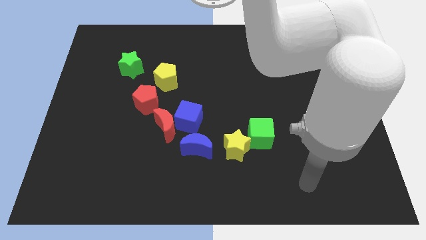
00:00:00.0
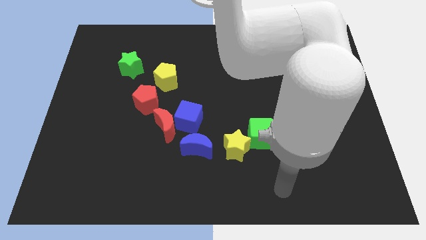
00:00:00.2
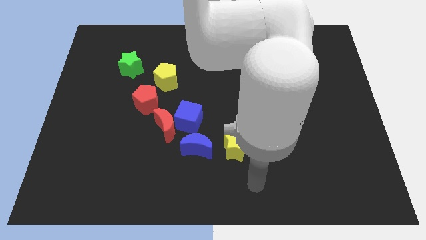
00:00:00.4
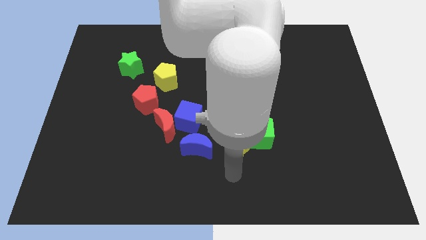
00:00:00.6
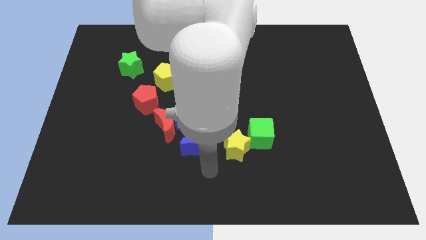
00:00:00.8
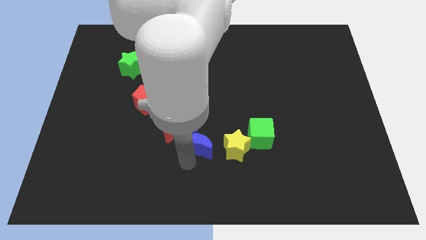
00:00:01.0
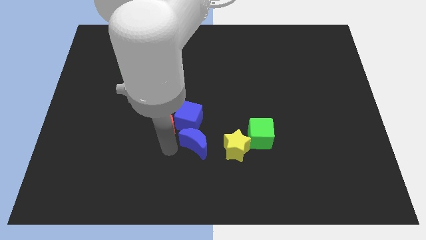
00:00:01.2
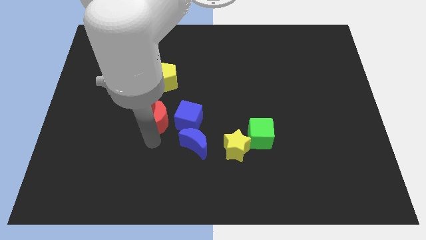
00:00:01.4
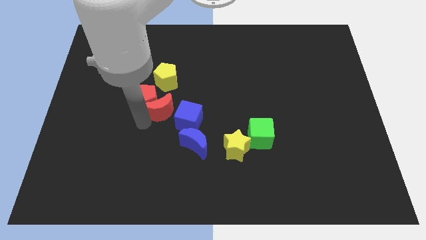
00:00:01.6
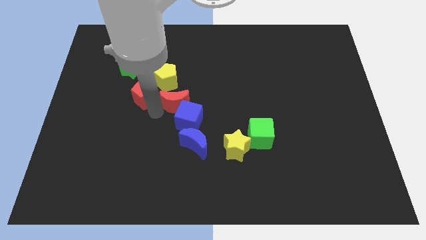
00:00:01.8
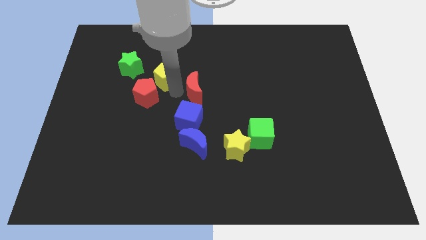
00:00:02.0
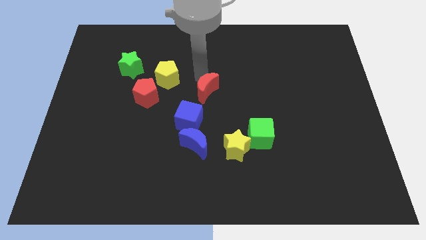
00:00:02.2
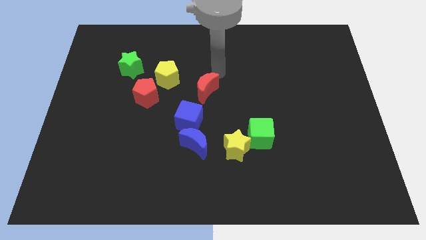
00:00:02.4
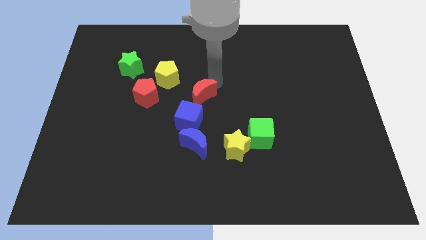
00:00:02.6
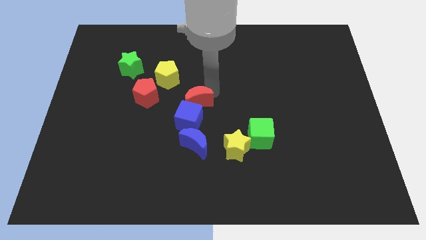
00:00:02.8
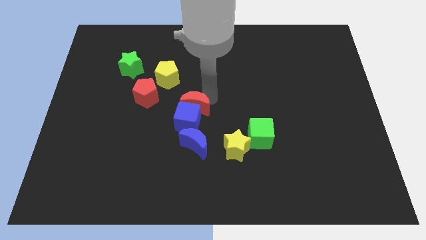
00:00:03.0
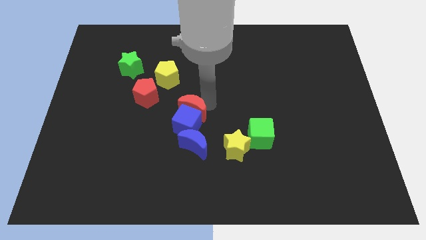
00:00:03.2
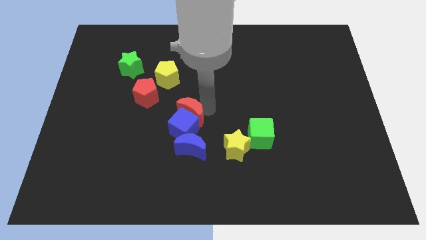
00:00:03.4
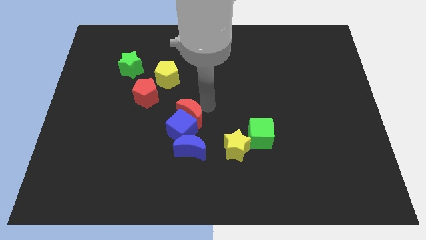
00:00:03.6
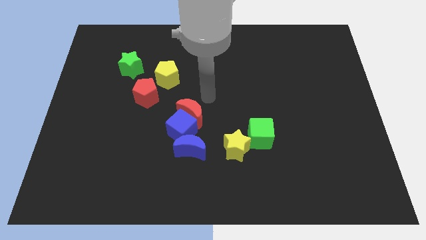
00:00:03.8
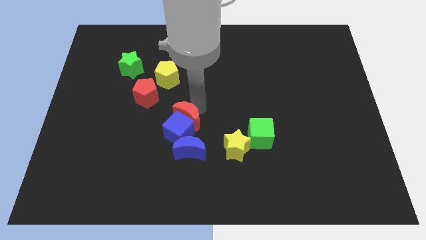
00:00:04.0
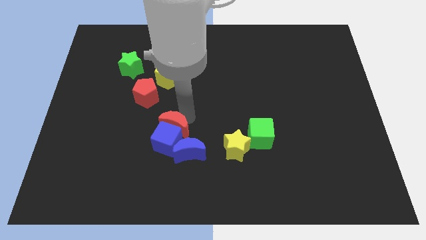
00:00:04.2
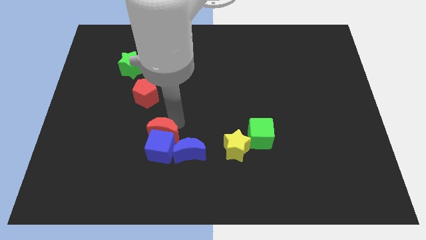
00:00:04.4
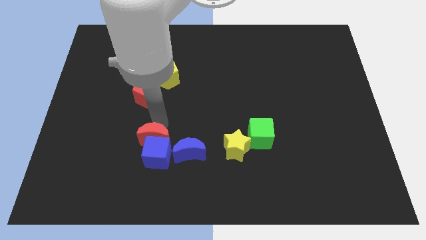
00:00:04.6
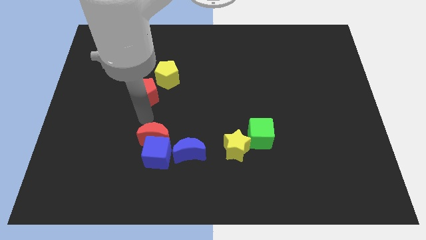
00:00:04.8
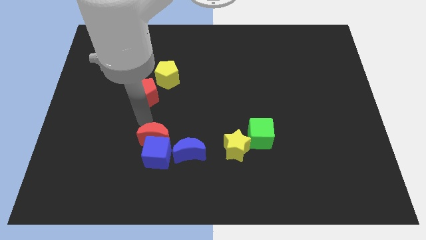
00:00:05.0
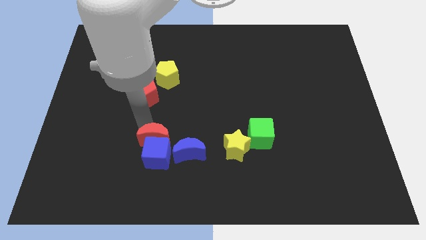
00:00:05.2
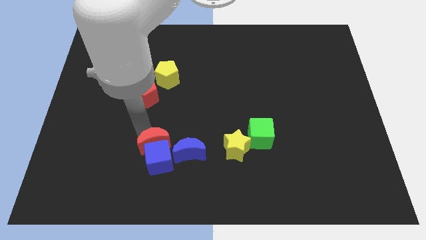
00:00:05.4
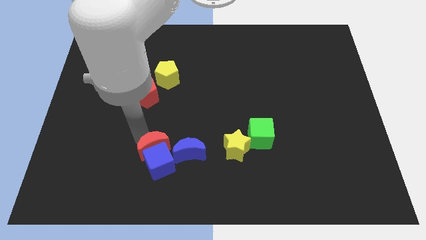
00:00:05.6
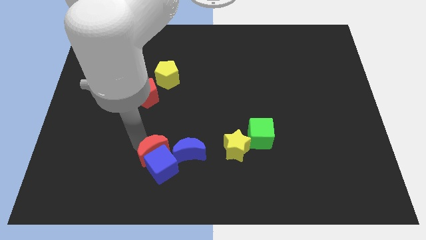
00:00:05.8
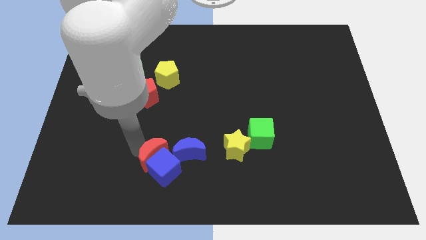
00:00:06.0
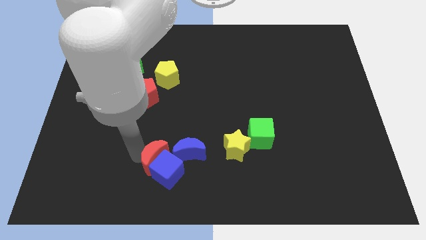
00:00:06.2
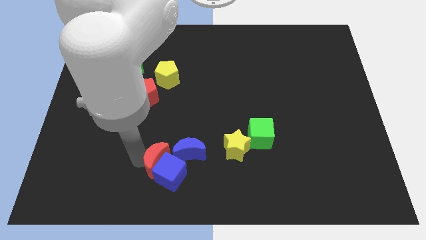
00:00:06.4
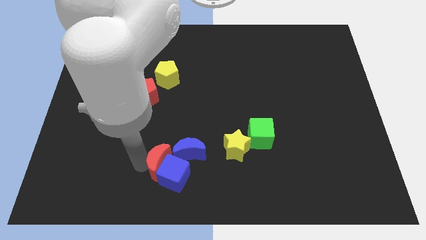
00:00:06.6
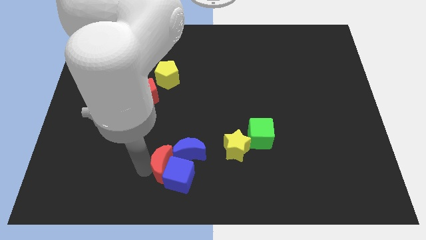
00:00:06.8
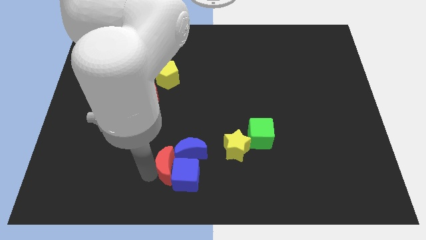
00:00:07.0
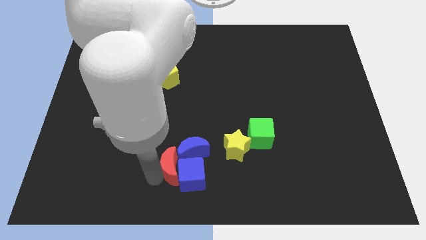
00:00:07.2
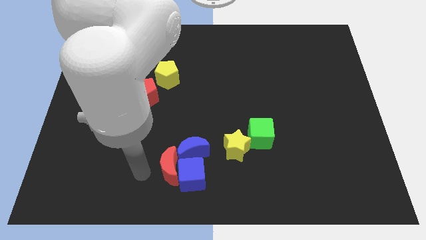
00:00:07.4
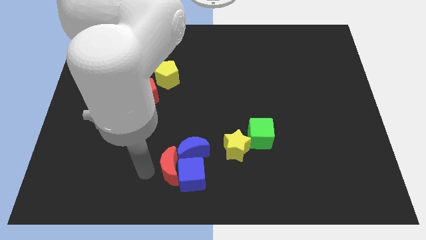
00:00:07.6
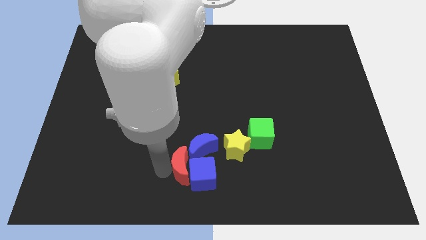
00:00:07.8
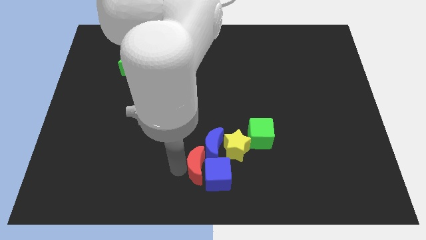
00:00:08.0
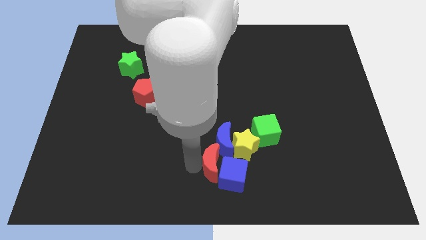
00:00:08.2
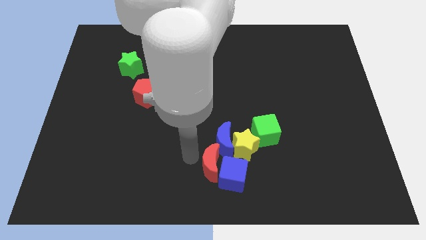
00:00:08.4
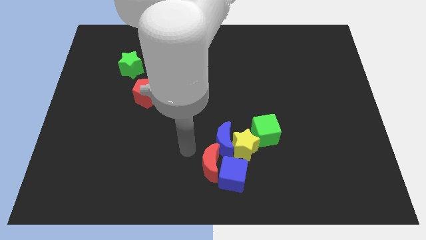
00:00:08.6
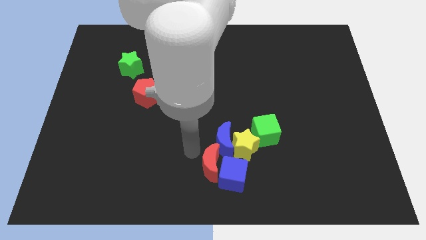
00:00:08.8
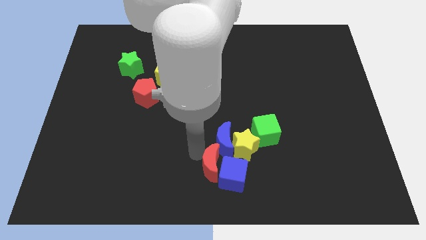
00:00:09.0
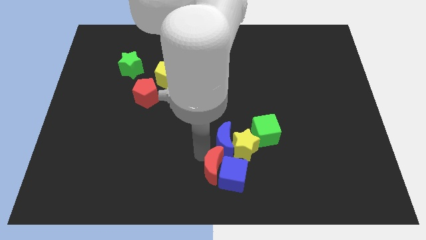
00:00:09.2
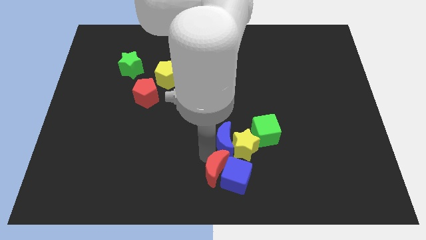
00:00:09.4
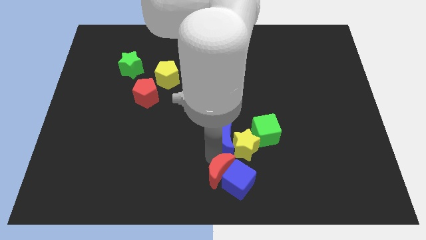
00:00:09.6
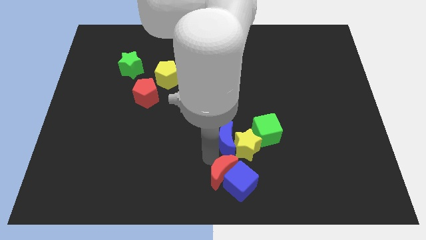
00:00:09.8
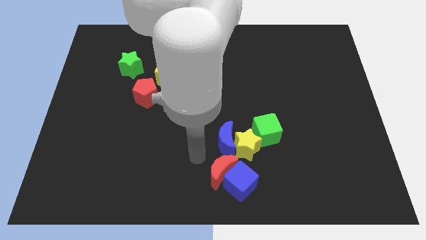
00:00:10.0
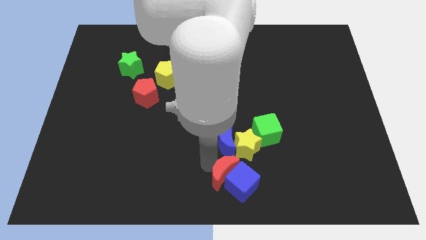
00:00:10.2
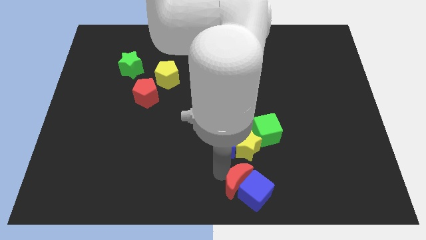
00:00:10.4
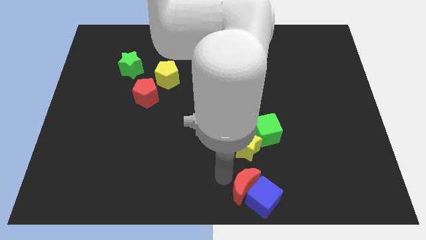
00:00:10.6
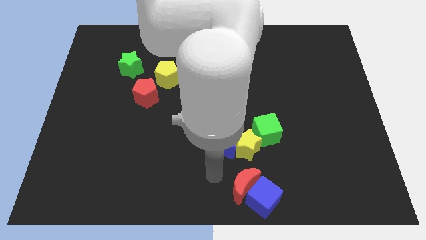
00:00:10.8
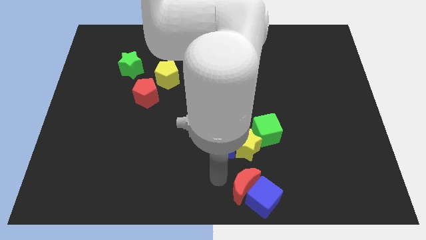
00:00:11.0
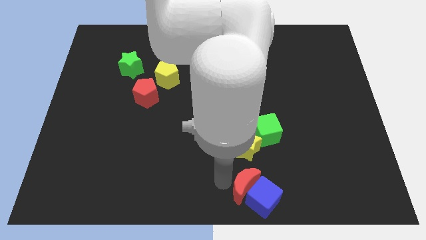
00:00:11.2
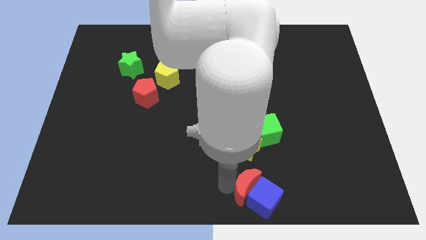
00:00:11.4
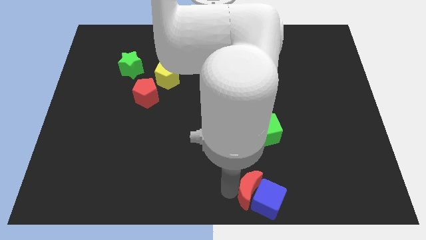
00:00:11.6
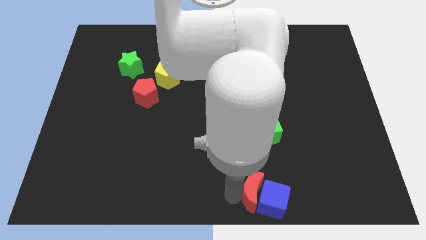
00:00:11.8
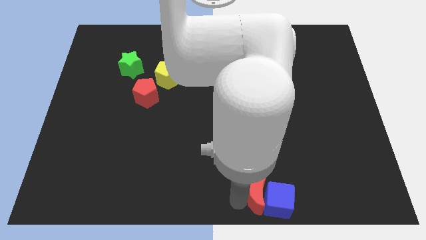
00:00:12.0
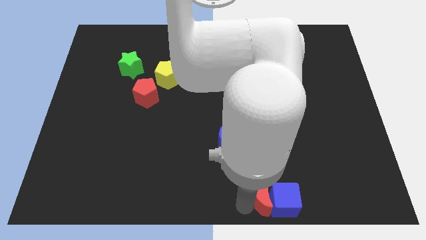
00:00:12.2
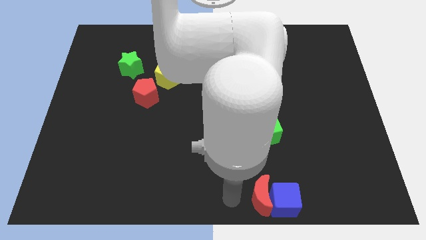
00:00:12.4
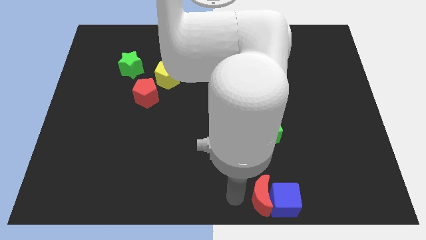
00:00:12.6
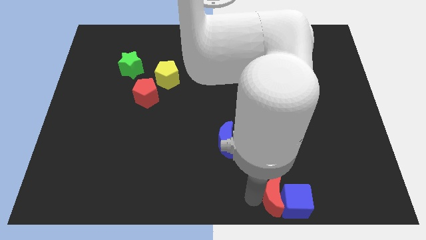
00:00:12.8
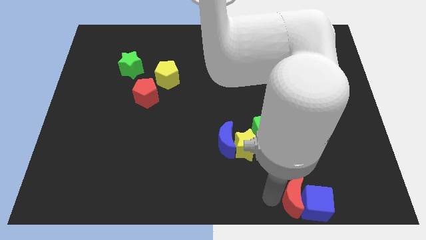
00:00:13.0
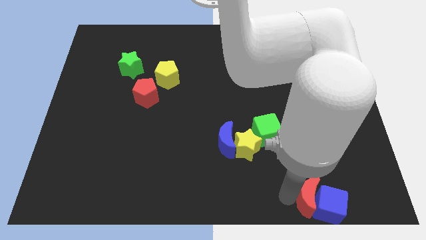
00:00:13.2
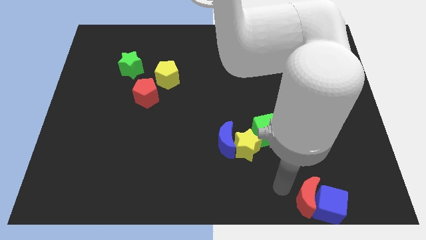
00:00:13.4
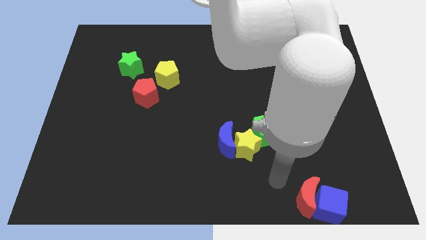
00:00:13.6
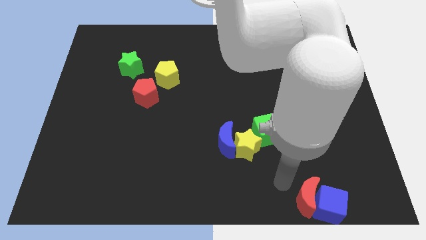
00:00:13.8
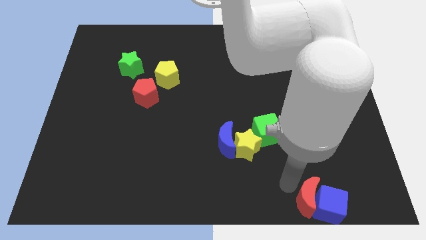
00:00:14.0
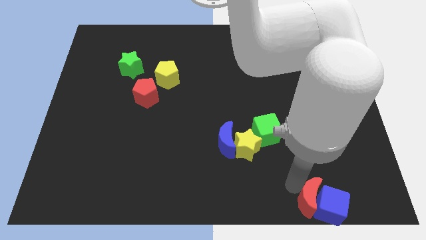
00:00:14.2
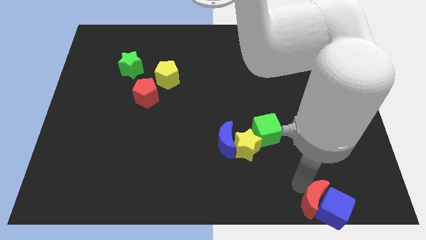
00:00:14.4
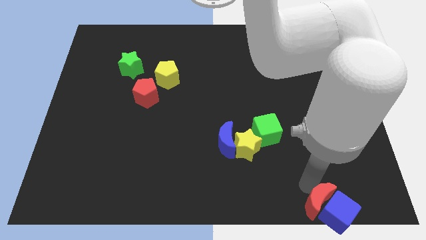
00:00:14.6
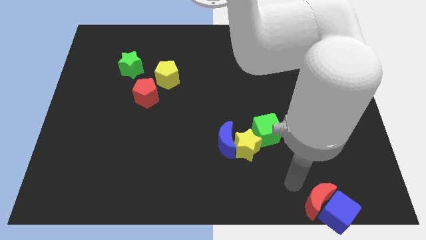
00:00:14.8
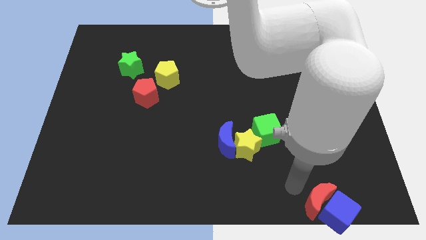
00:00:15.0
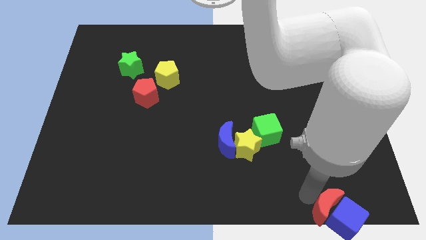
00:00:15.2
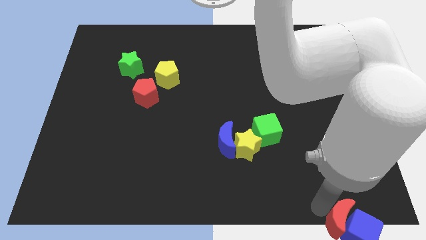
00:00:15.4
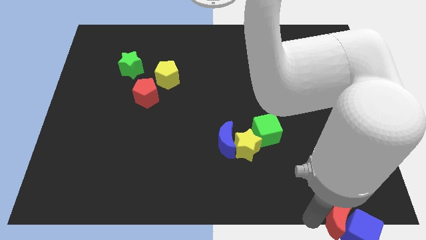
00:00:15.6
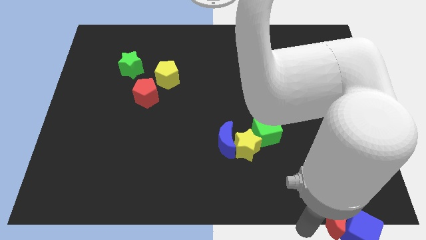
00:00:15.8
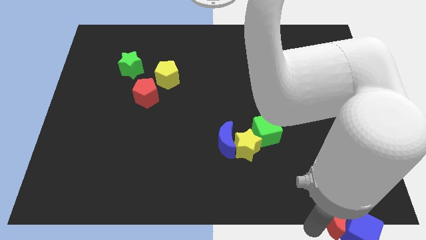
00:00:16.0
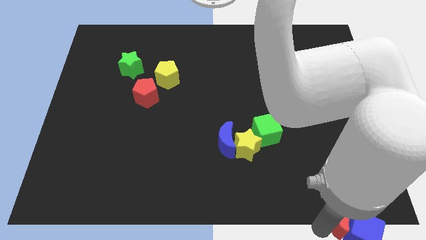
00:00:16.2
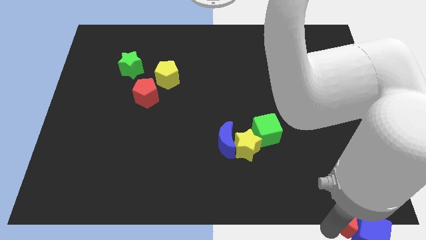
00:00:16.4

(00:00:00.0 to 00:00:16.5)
put the red moon to the bottom right
